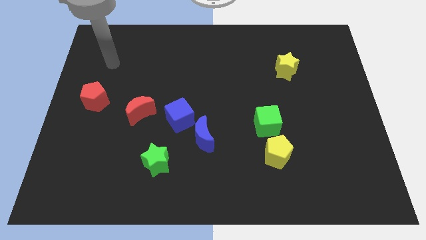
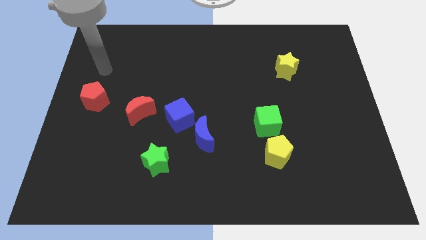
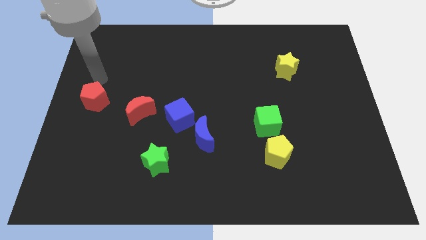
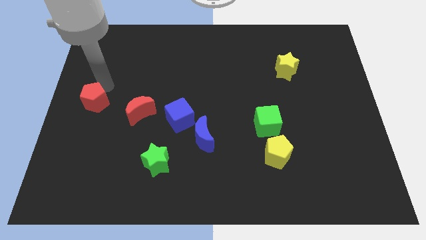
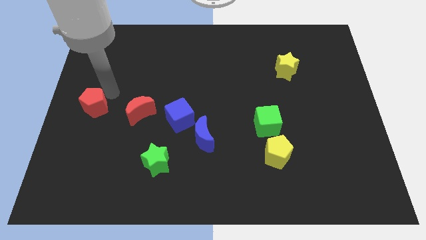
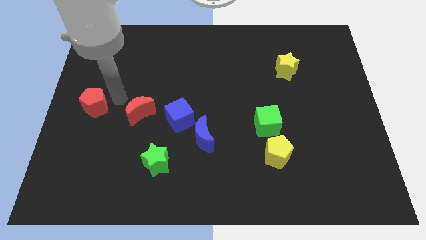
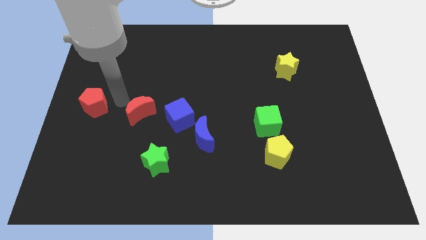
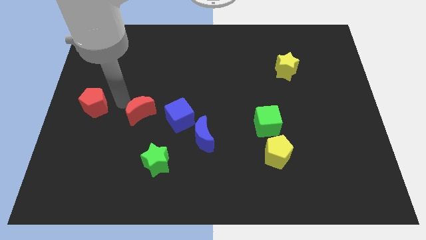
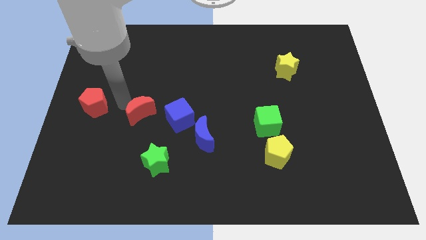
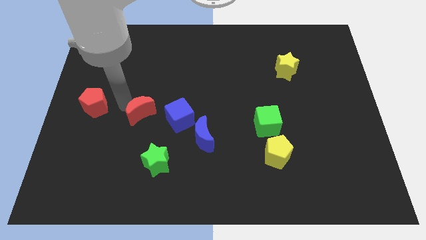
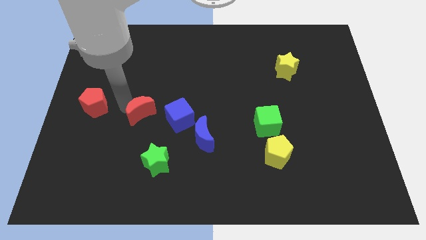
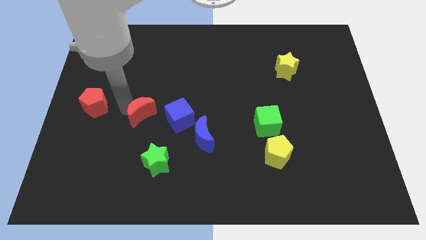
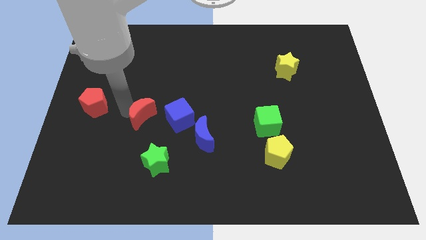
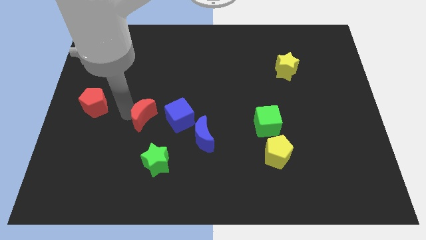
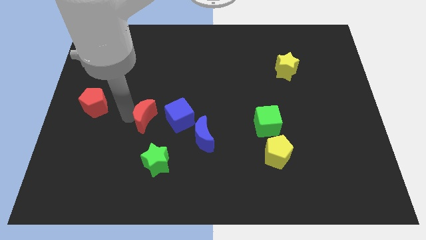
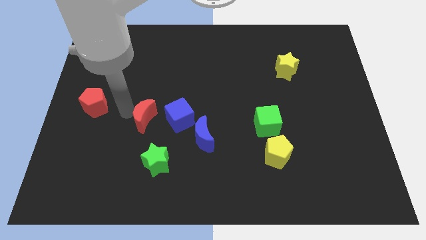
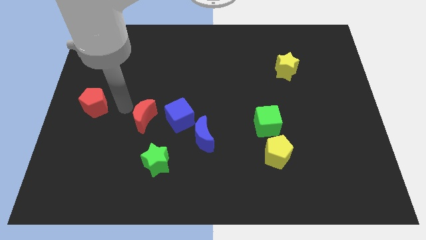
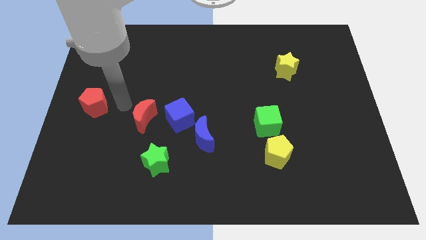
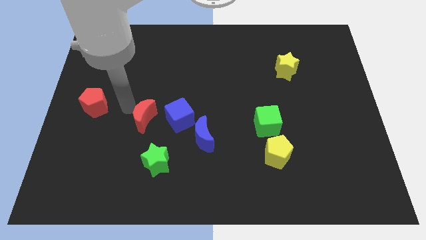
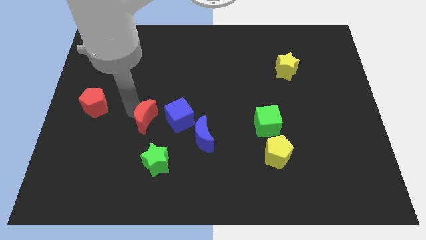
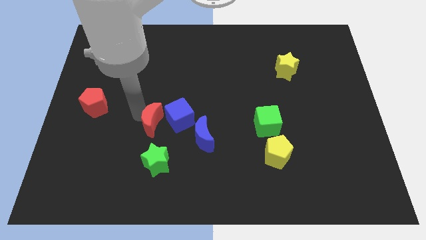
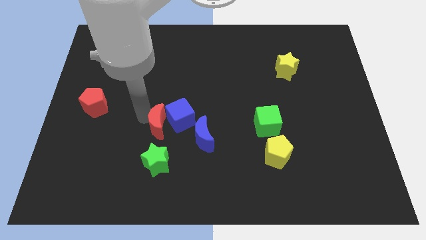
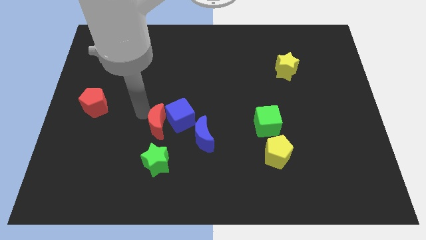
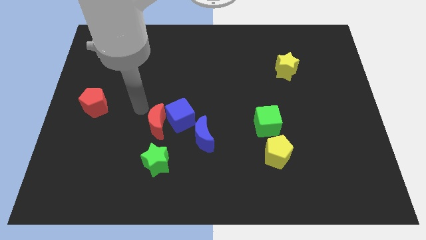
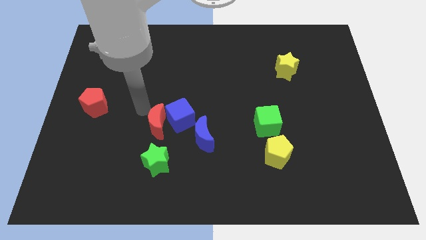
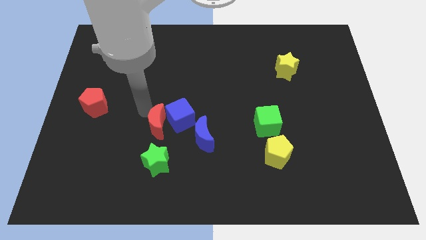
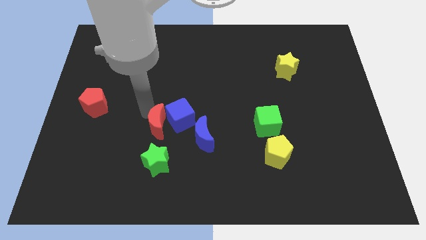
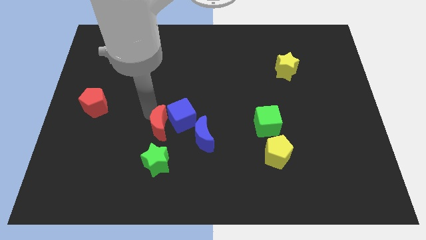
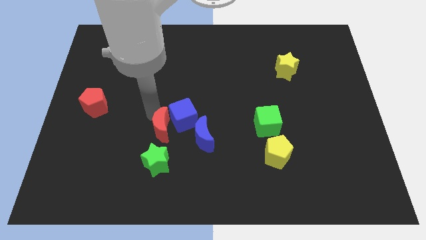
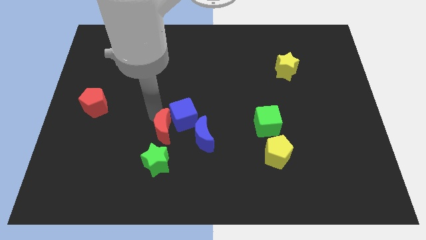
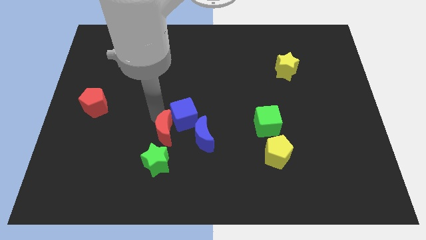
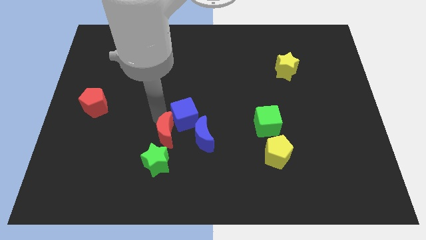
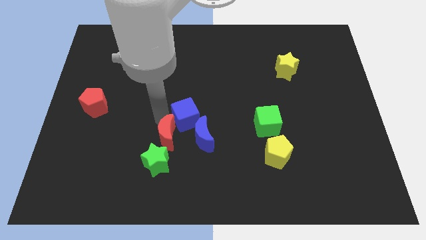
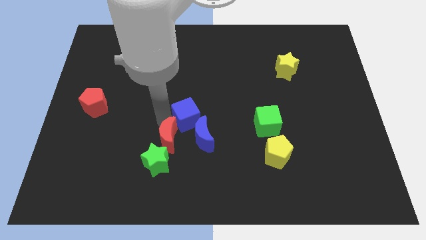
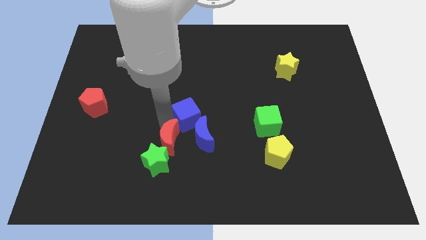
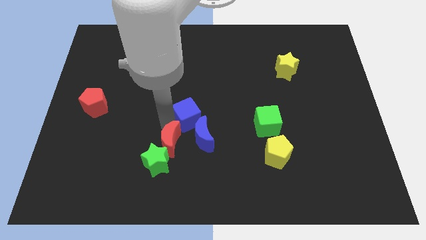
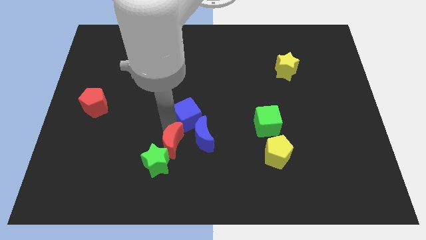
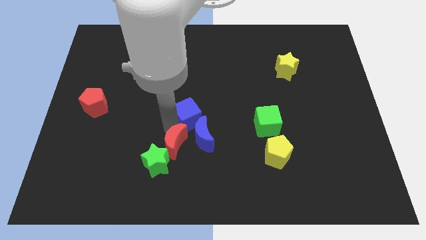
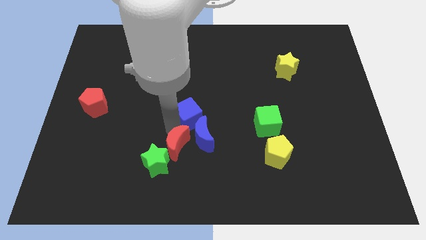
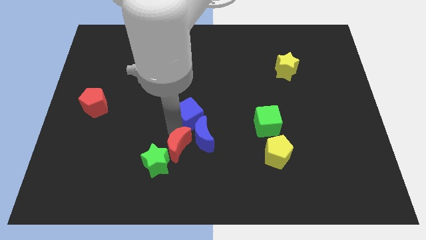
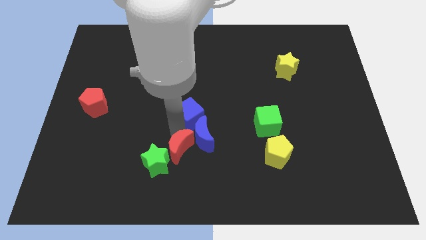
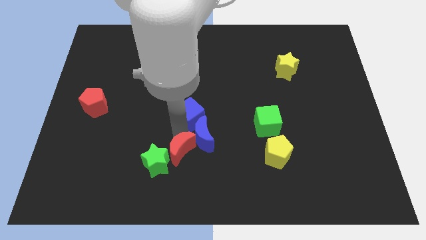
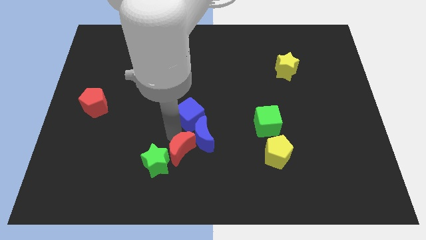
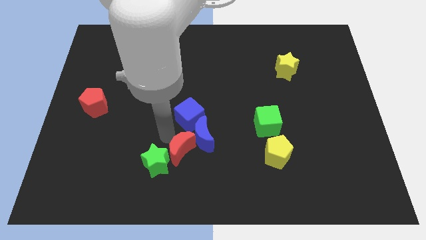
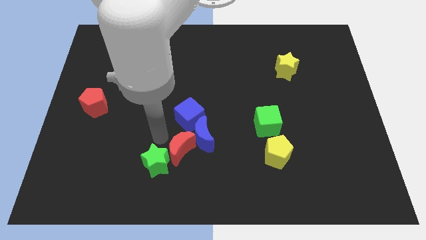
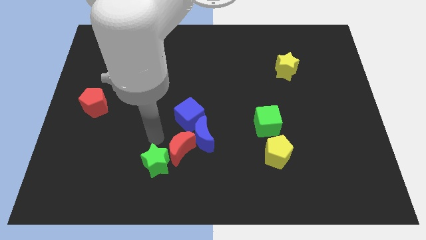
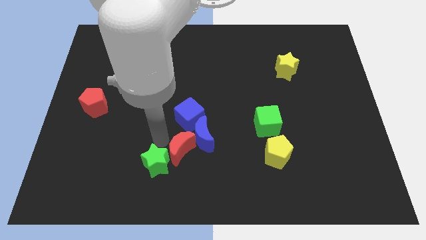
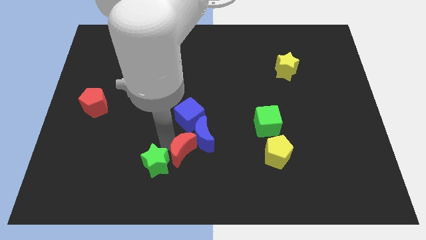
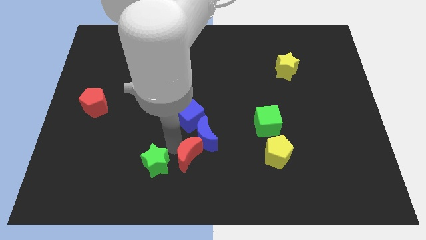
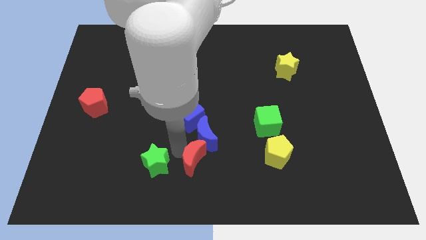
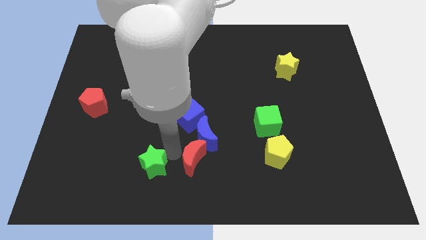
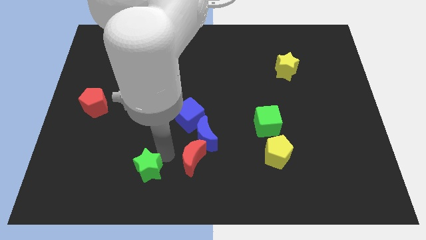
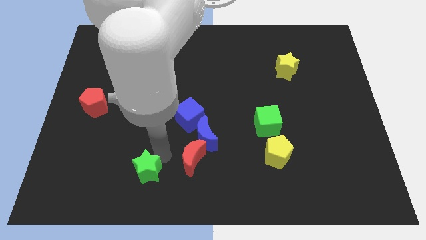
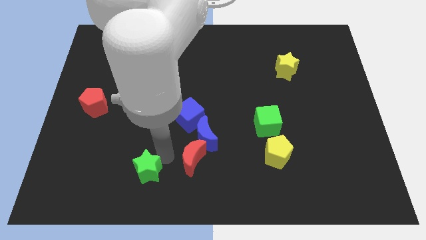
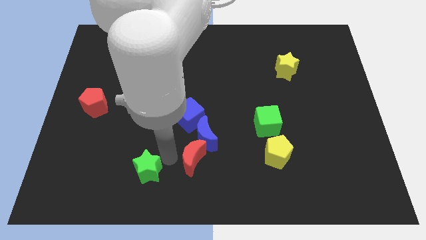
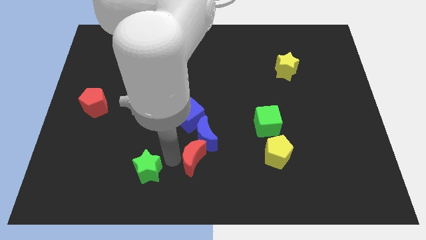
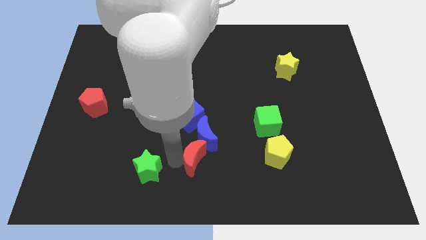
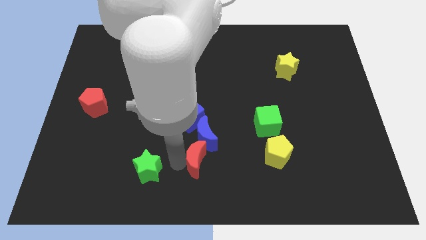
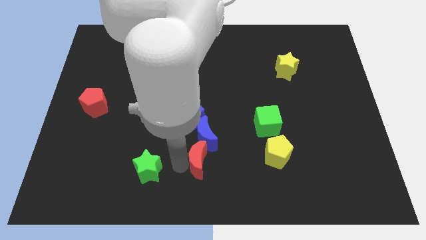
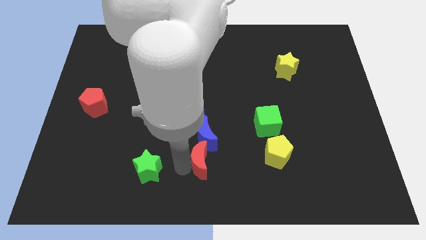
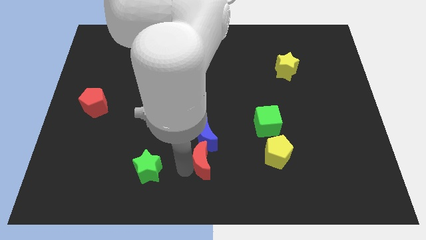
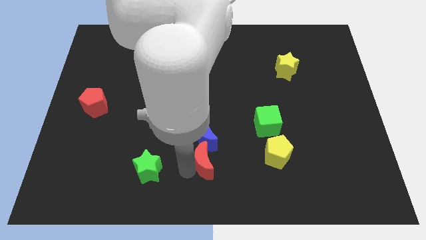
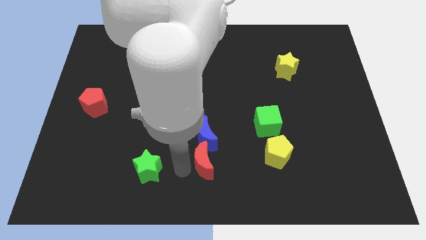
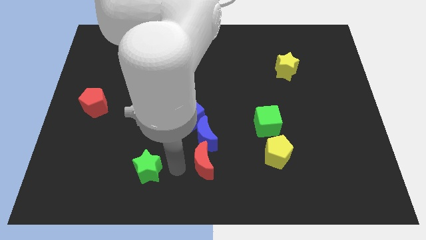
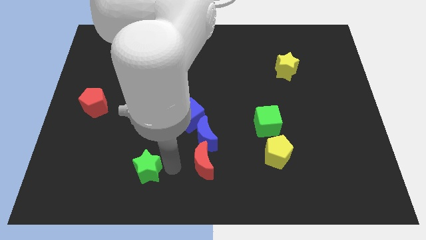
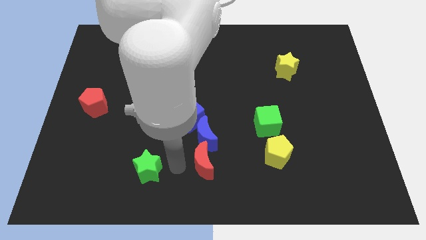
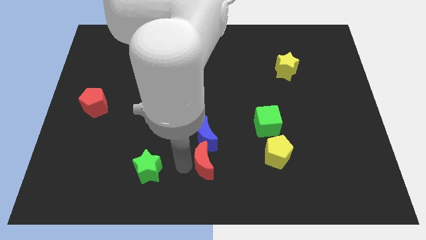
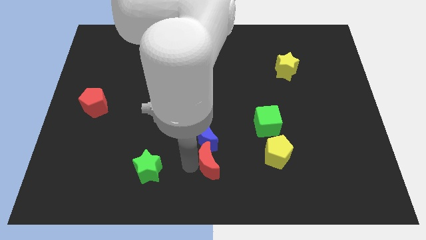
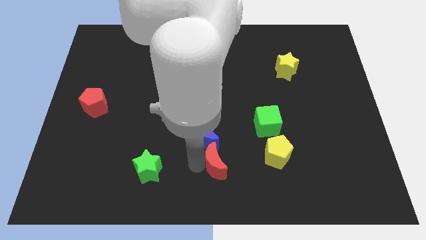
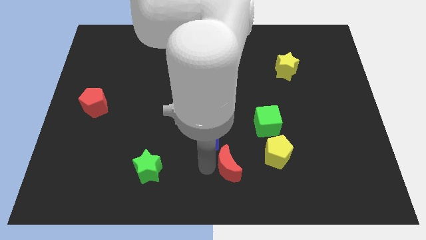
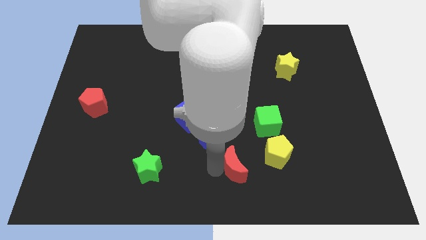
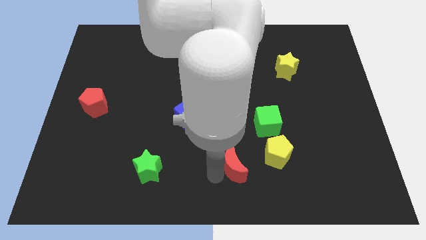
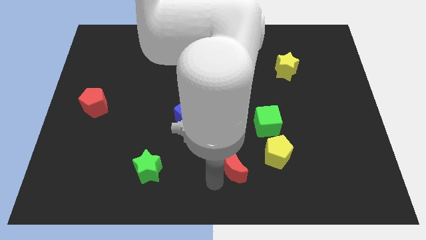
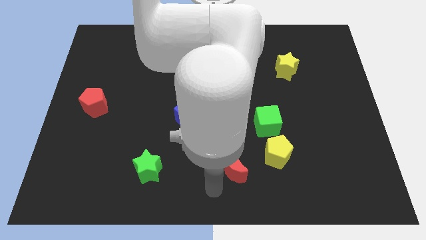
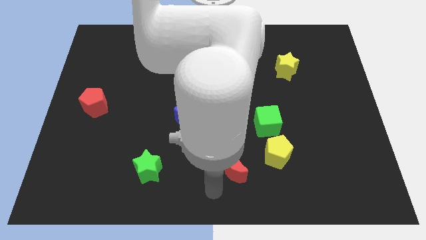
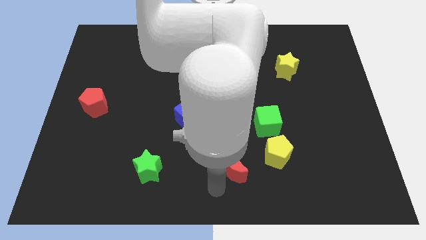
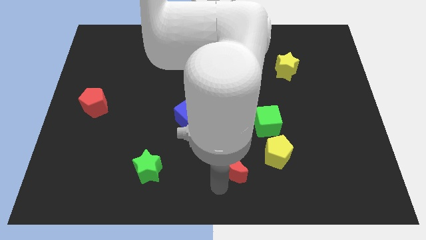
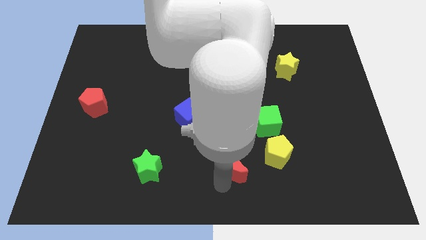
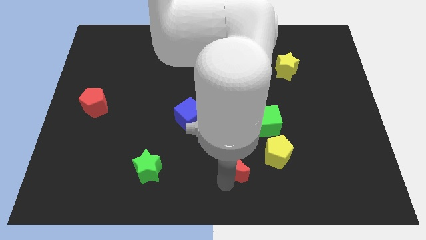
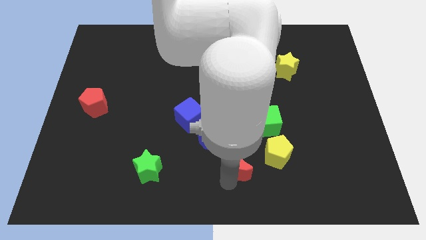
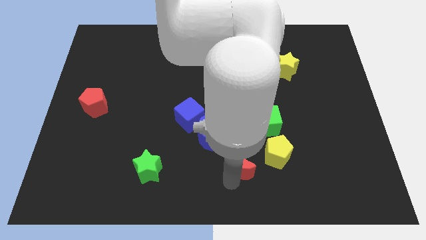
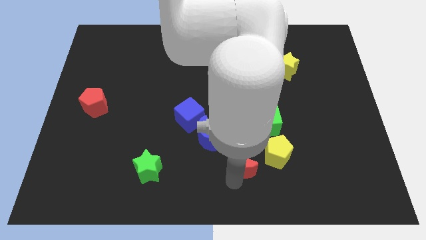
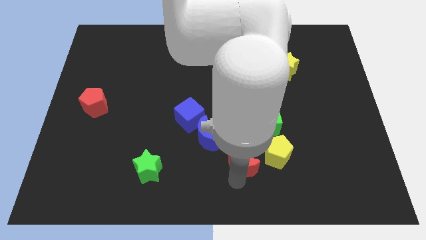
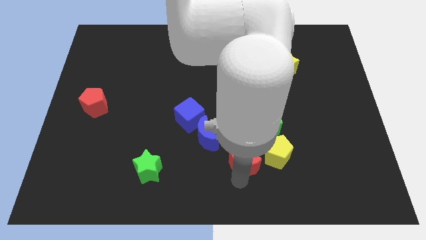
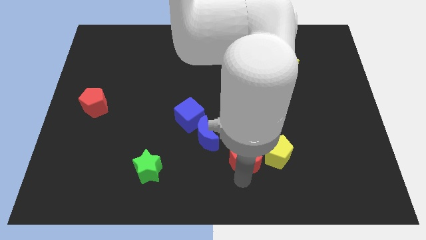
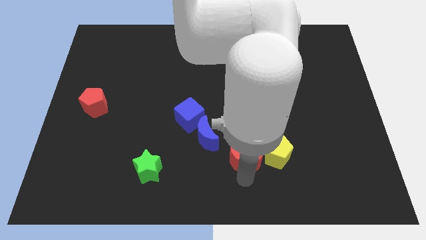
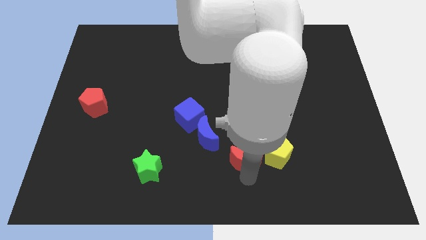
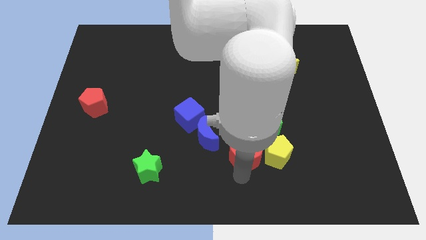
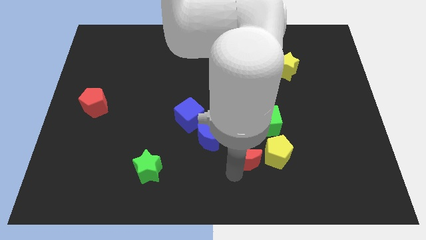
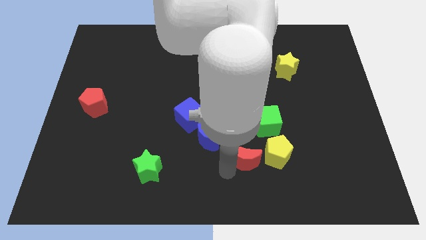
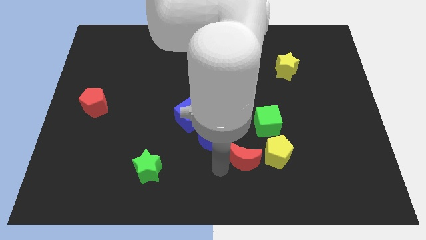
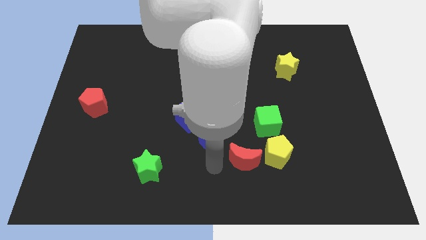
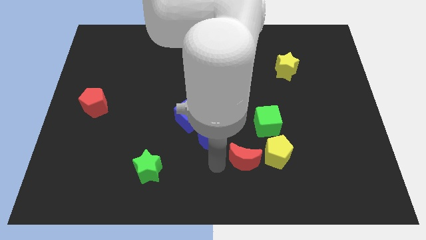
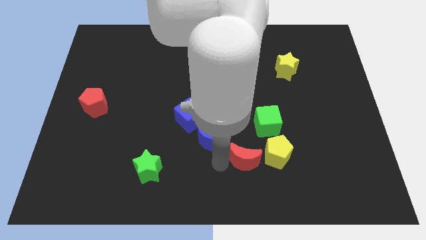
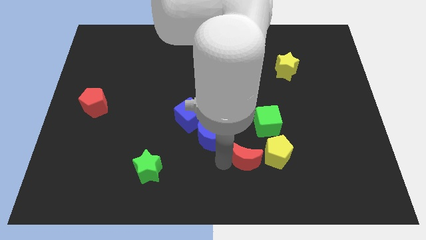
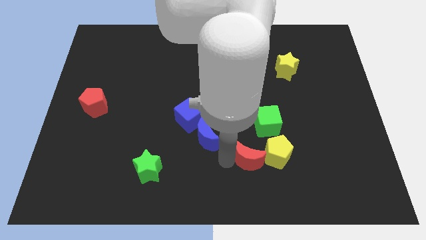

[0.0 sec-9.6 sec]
push the red moon towards the yellow pentagon
